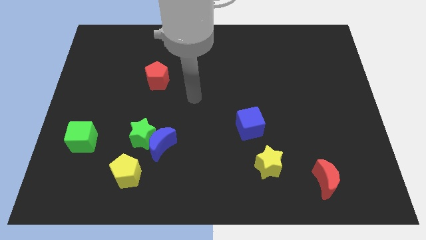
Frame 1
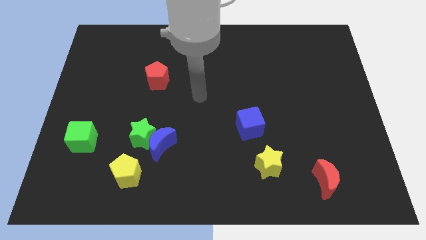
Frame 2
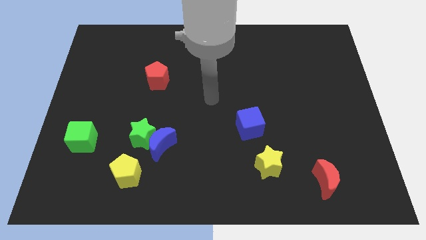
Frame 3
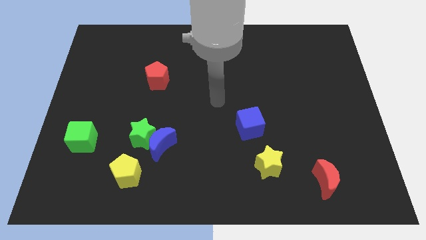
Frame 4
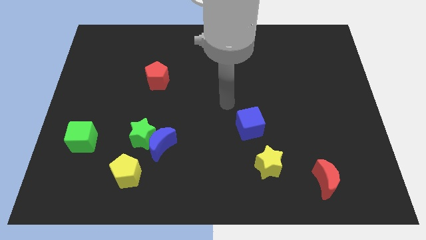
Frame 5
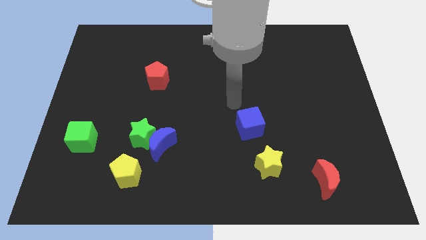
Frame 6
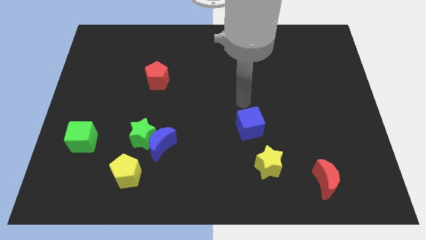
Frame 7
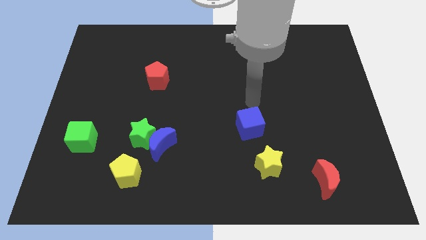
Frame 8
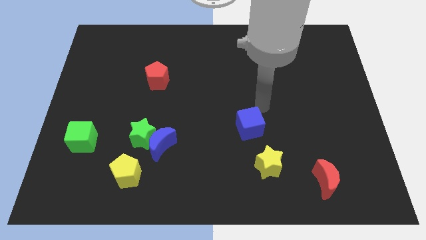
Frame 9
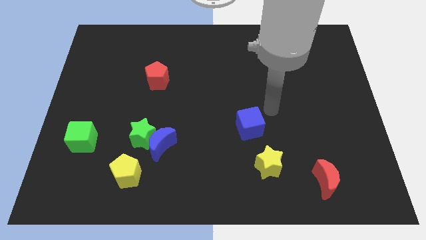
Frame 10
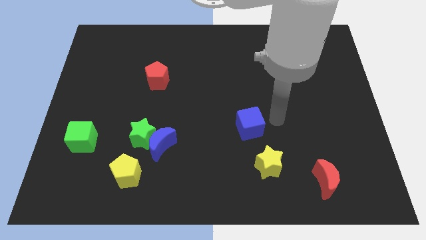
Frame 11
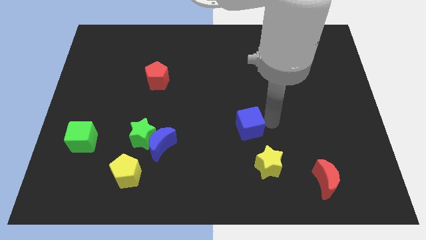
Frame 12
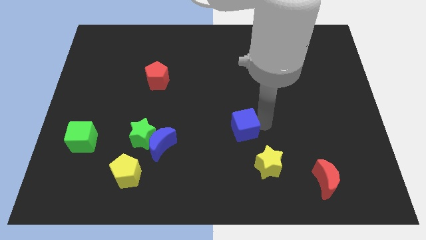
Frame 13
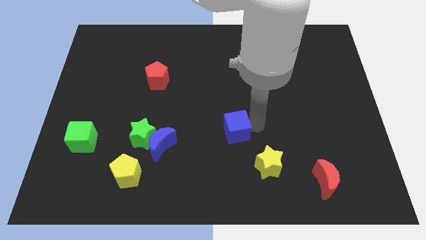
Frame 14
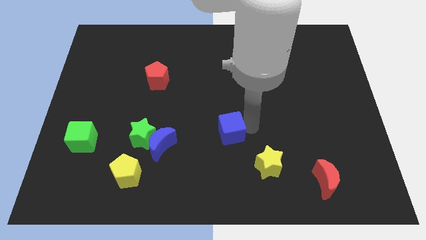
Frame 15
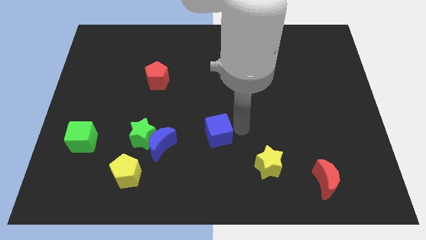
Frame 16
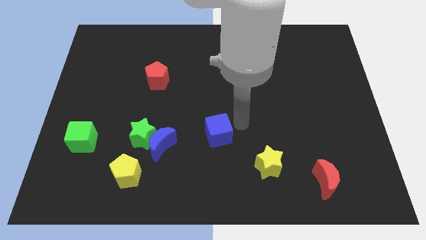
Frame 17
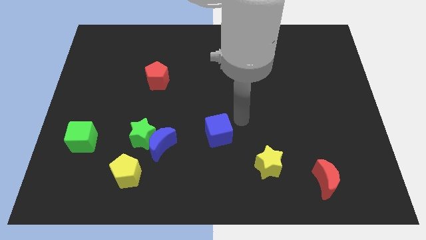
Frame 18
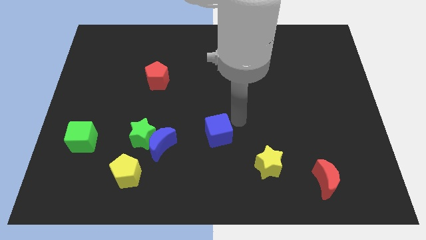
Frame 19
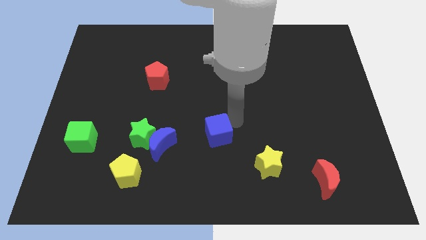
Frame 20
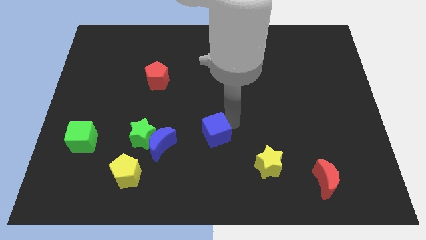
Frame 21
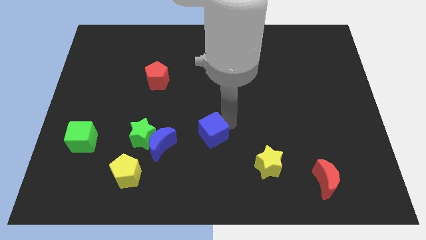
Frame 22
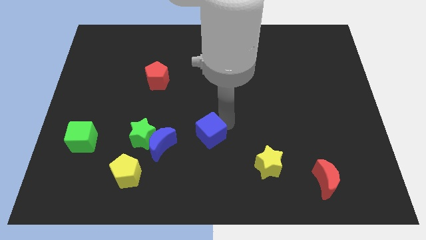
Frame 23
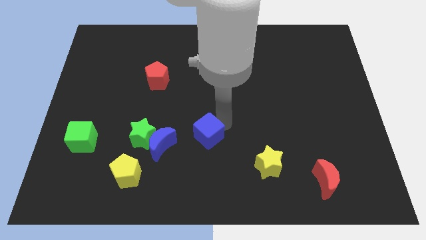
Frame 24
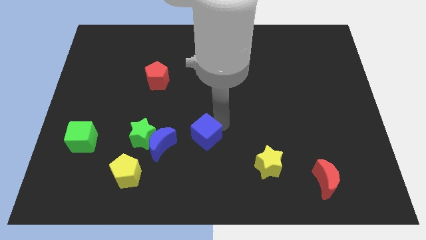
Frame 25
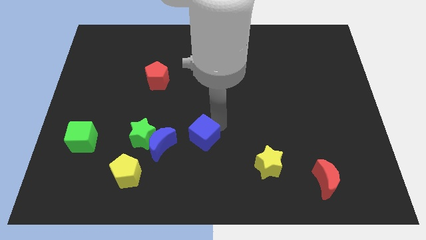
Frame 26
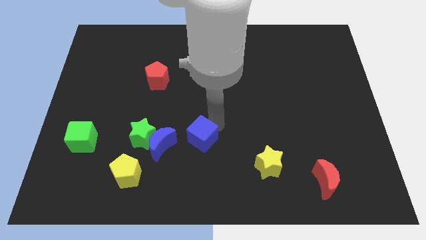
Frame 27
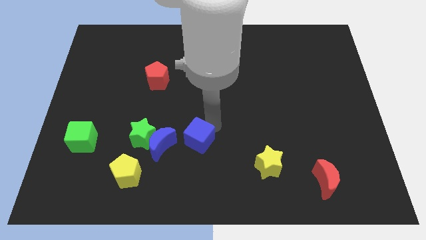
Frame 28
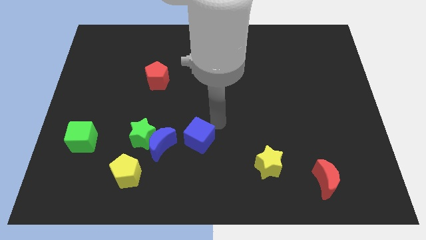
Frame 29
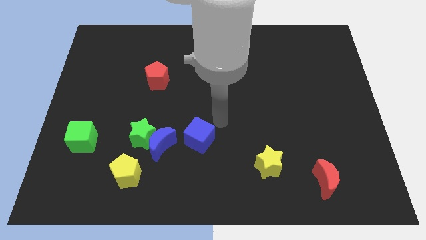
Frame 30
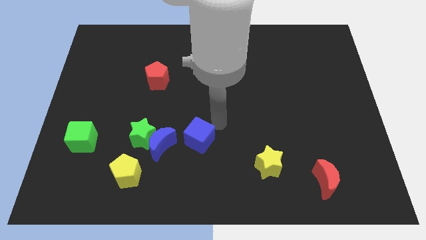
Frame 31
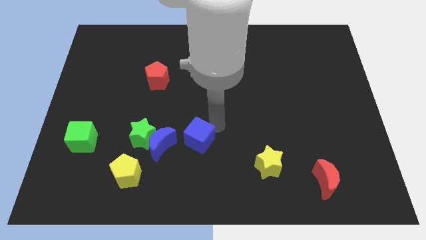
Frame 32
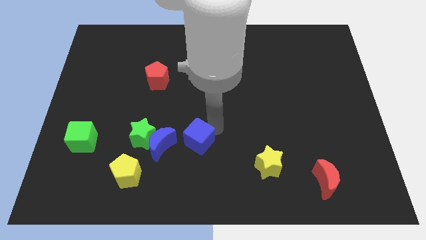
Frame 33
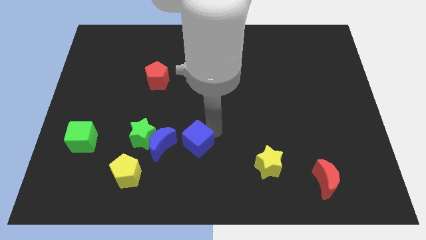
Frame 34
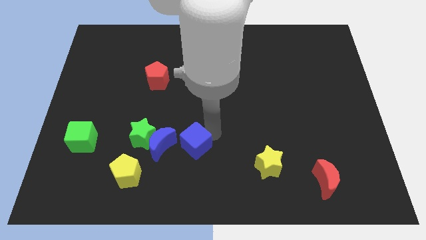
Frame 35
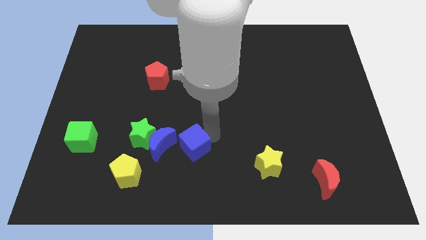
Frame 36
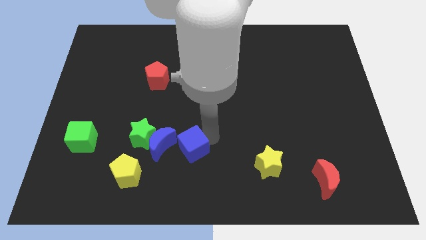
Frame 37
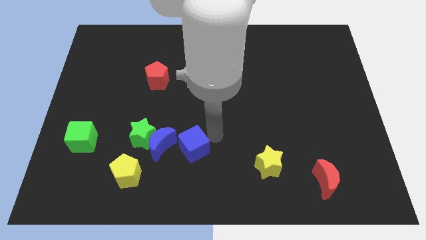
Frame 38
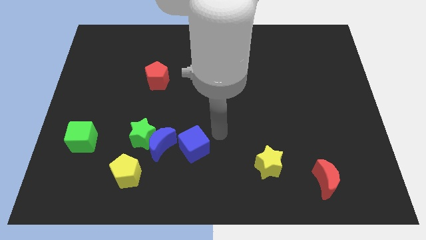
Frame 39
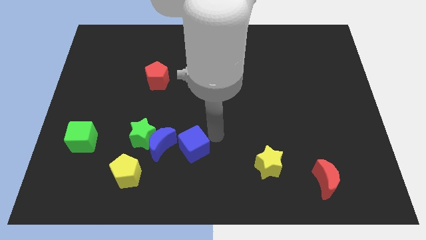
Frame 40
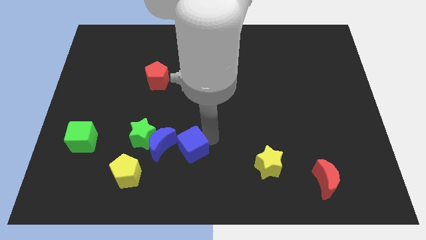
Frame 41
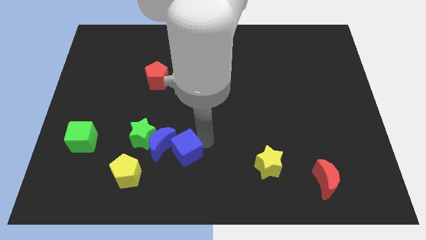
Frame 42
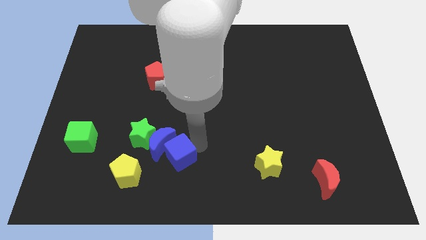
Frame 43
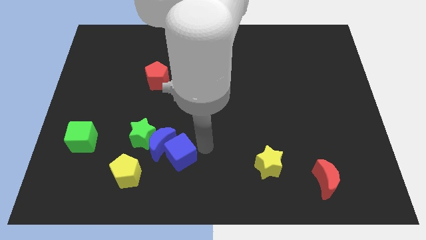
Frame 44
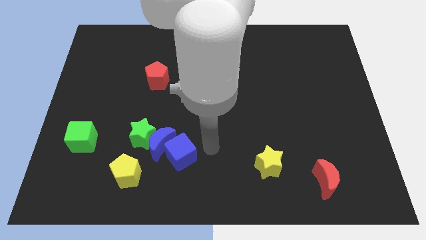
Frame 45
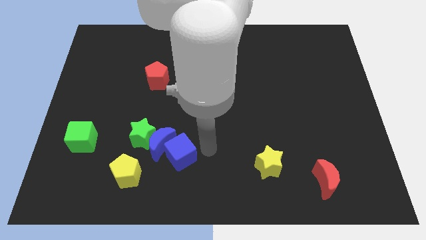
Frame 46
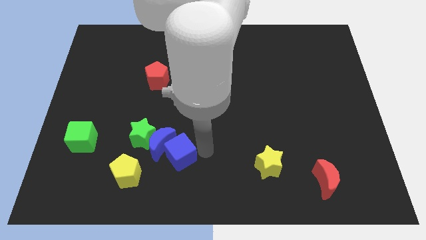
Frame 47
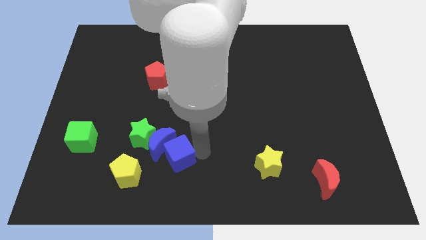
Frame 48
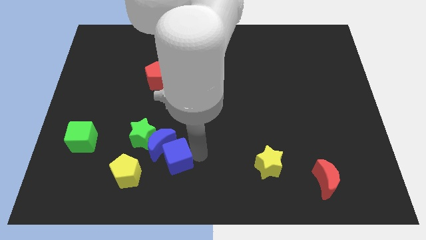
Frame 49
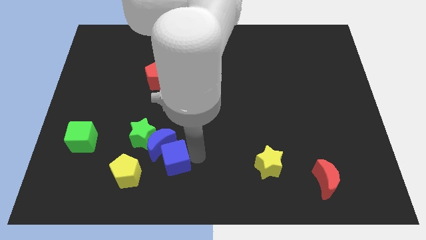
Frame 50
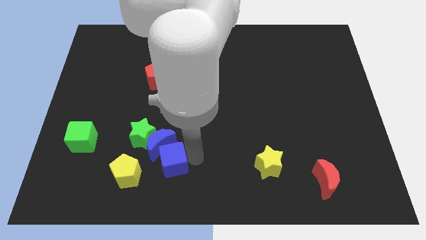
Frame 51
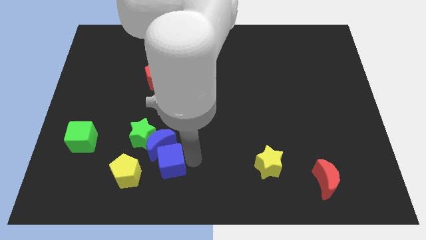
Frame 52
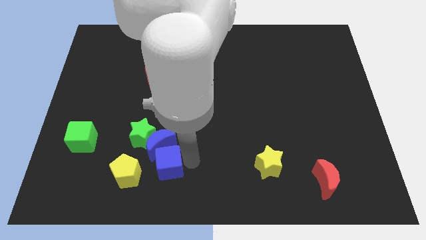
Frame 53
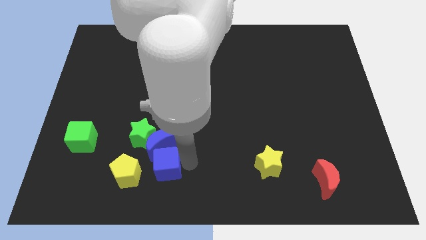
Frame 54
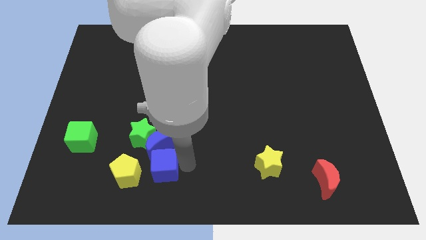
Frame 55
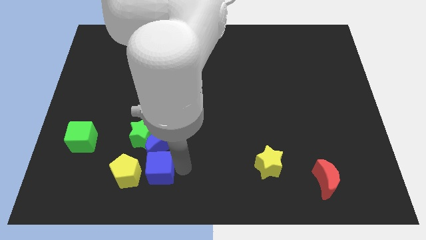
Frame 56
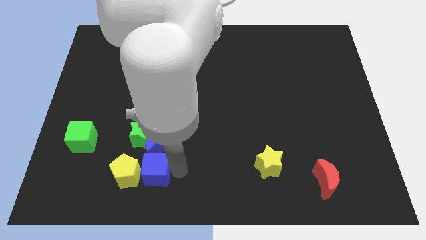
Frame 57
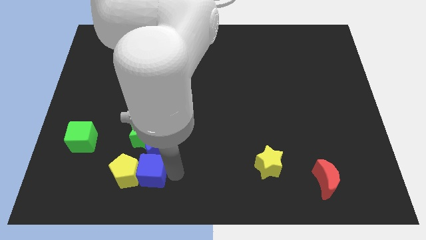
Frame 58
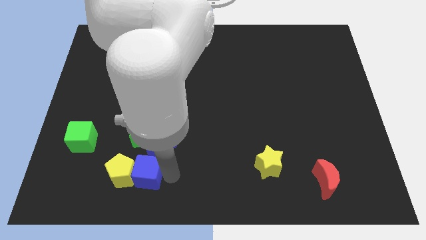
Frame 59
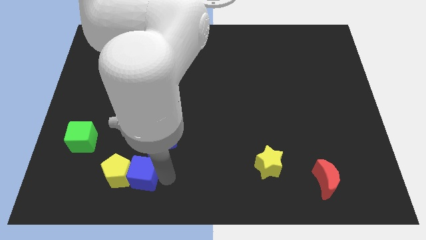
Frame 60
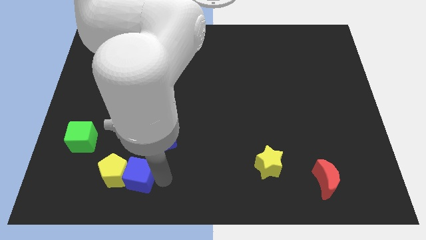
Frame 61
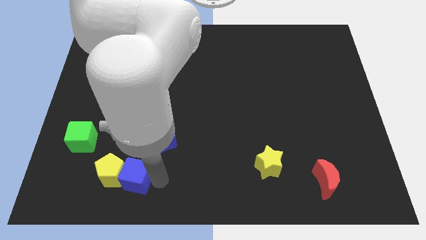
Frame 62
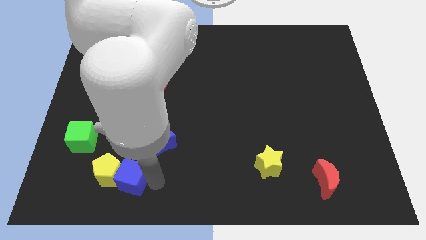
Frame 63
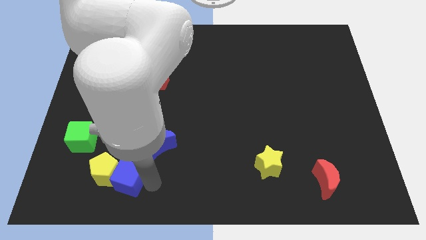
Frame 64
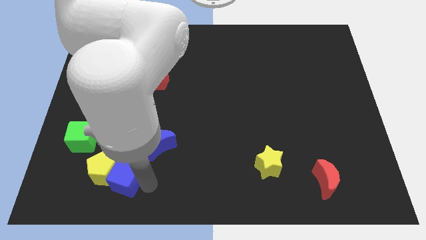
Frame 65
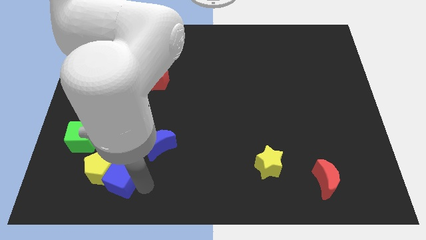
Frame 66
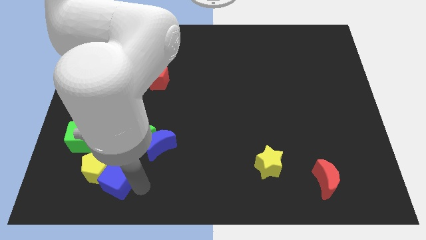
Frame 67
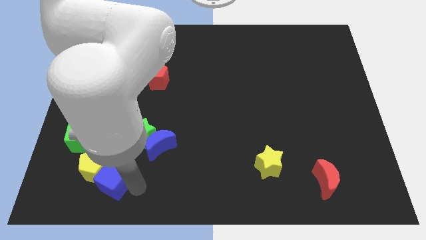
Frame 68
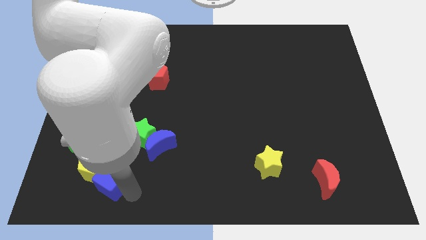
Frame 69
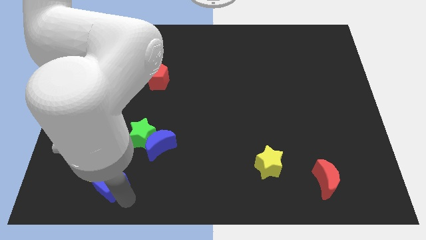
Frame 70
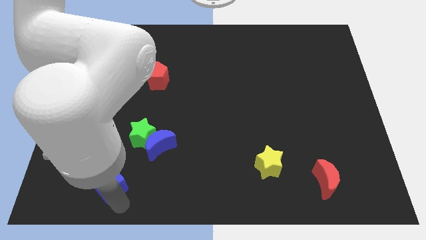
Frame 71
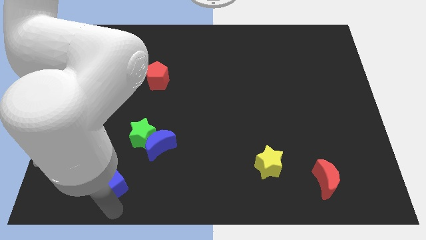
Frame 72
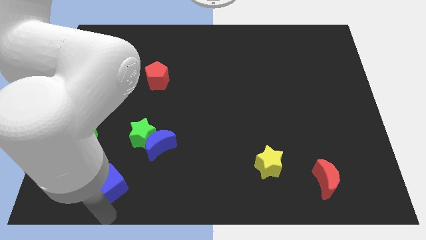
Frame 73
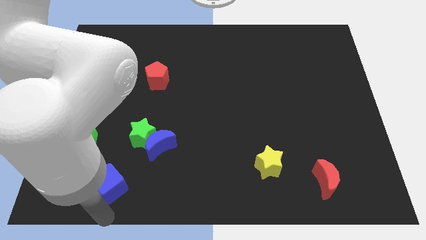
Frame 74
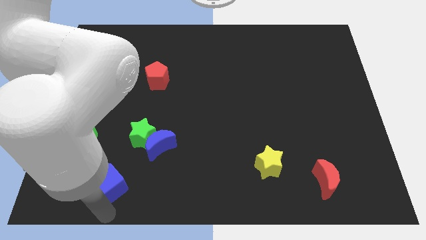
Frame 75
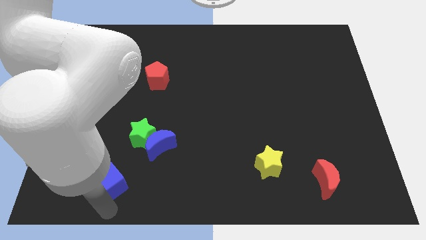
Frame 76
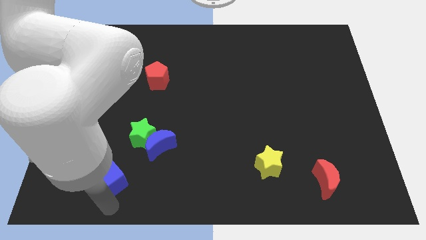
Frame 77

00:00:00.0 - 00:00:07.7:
slide the blue cube diagonally down and to the left of the green star
